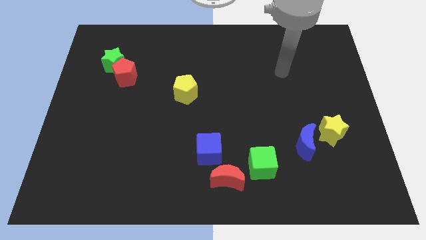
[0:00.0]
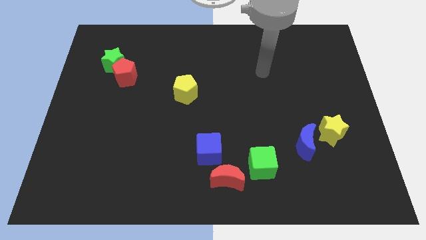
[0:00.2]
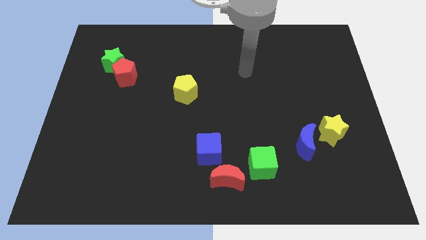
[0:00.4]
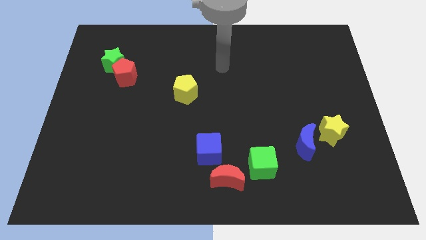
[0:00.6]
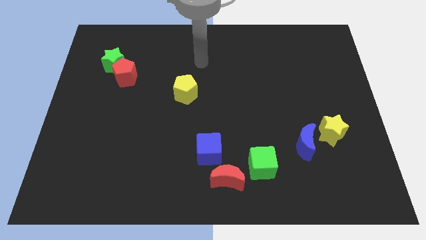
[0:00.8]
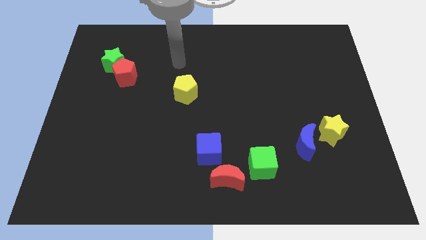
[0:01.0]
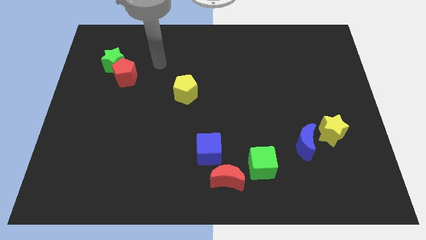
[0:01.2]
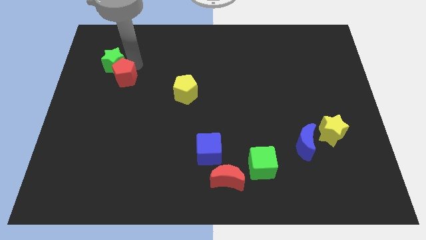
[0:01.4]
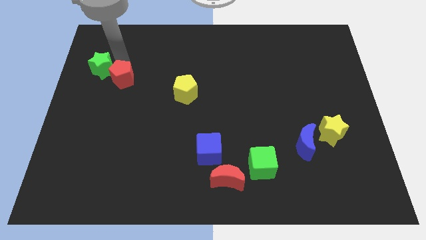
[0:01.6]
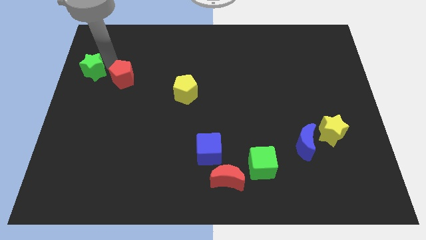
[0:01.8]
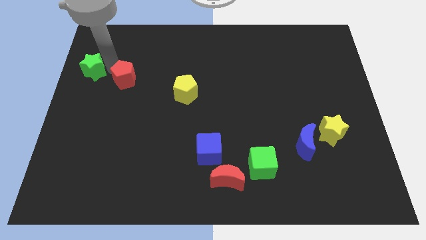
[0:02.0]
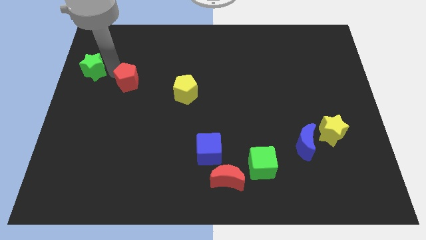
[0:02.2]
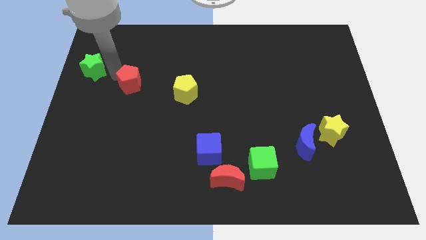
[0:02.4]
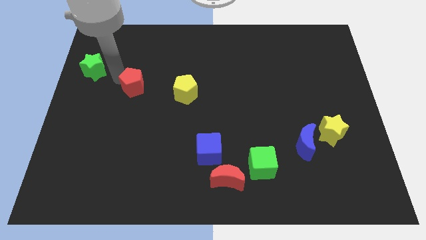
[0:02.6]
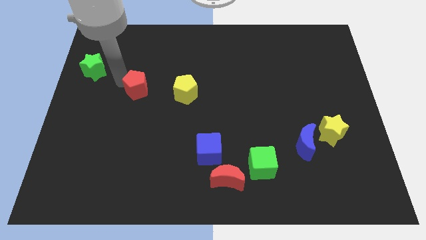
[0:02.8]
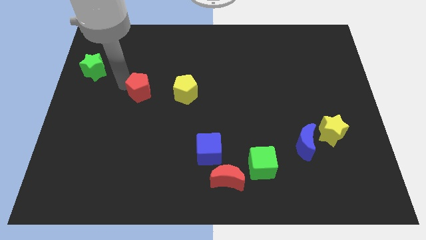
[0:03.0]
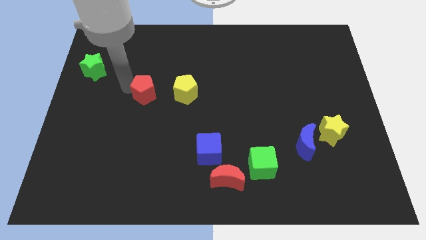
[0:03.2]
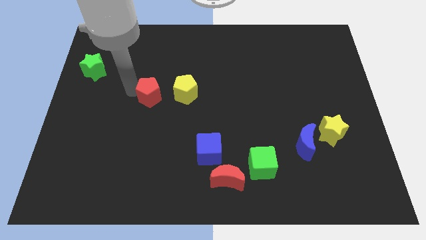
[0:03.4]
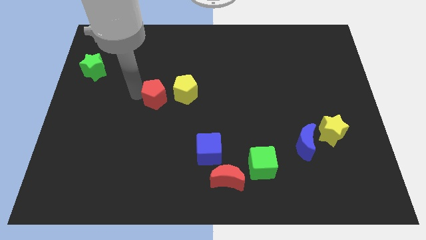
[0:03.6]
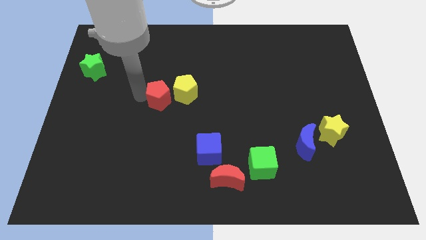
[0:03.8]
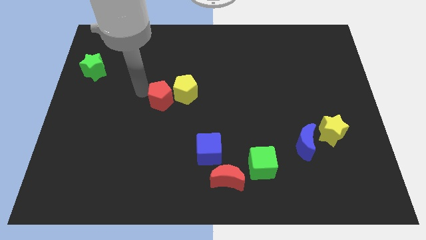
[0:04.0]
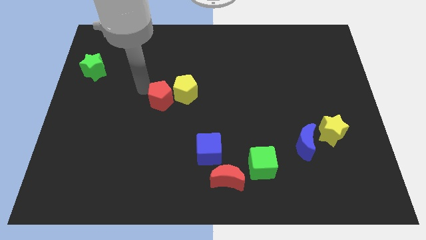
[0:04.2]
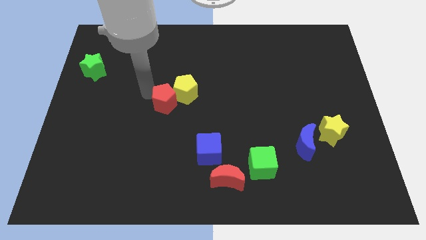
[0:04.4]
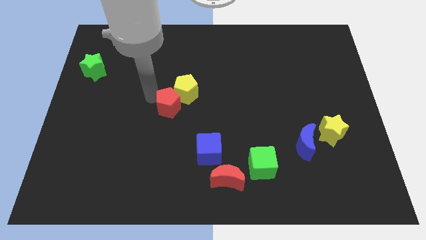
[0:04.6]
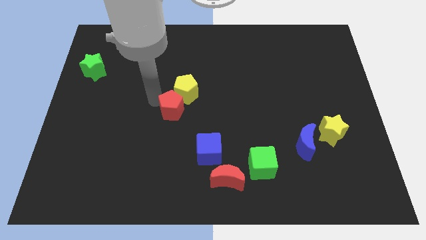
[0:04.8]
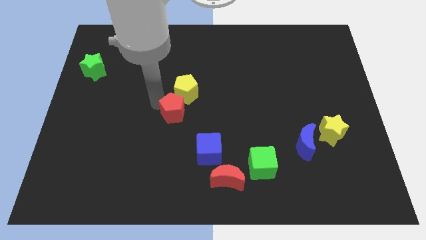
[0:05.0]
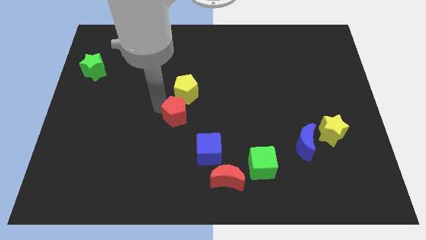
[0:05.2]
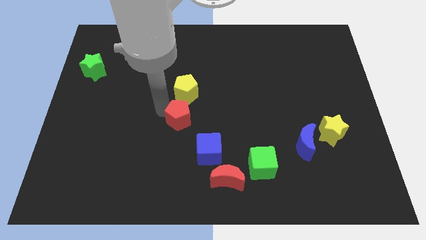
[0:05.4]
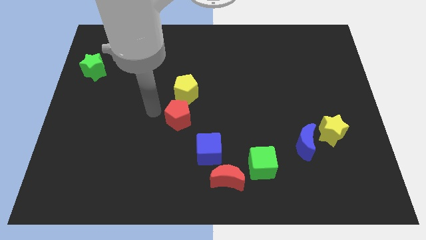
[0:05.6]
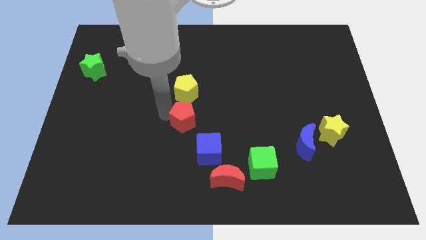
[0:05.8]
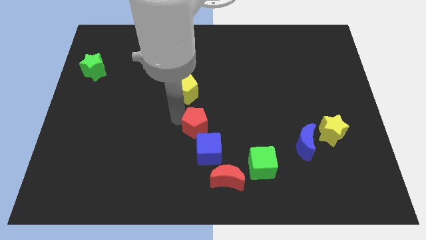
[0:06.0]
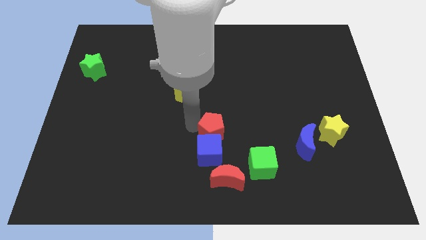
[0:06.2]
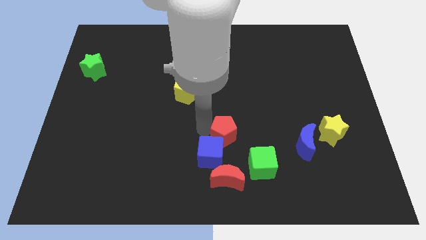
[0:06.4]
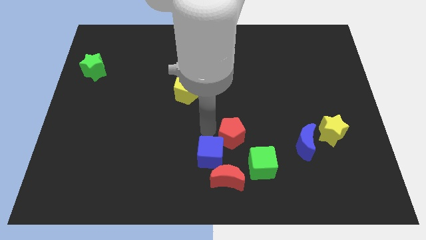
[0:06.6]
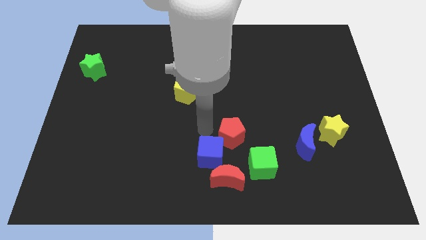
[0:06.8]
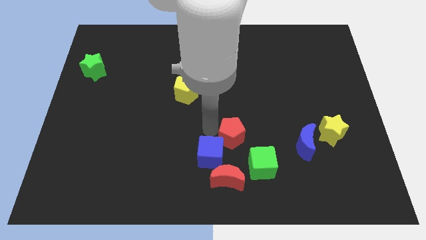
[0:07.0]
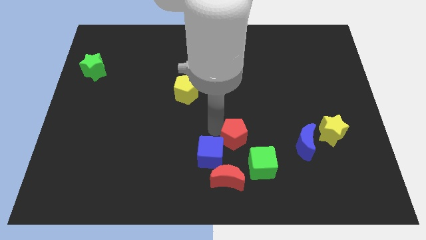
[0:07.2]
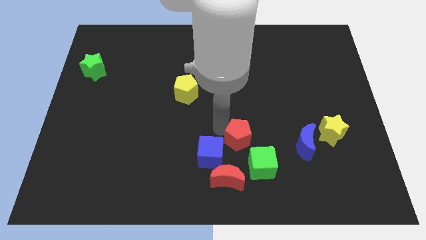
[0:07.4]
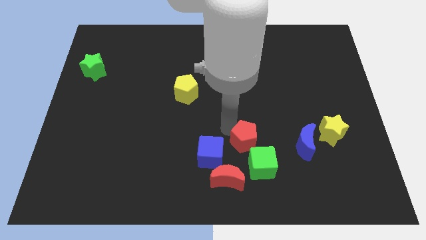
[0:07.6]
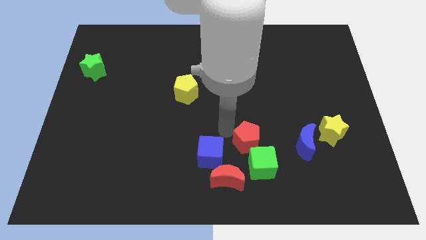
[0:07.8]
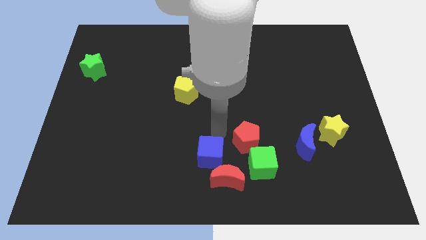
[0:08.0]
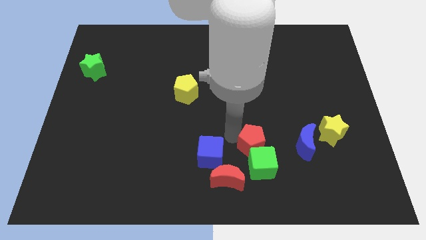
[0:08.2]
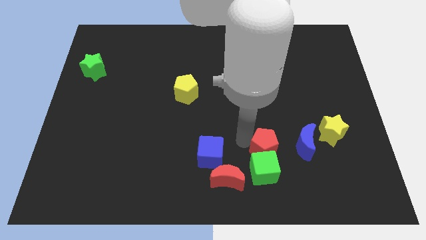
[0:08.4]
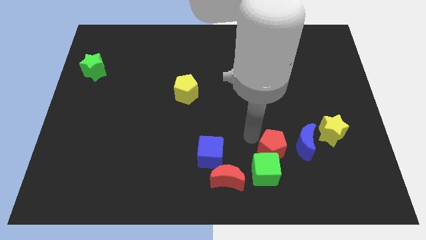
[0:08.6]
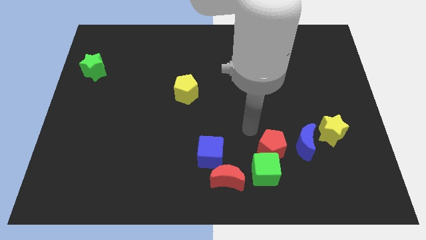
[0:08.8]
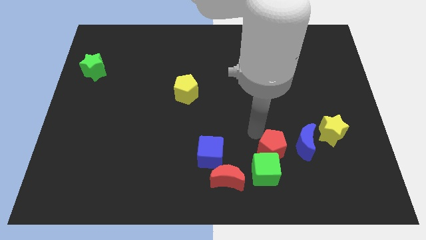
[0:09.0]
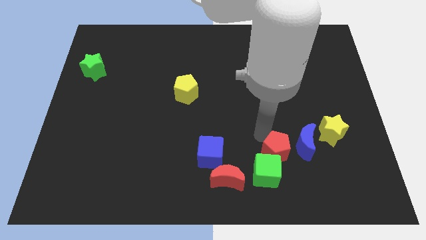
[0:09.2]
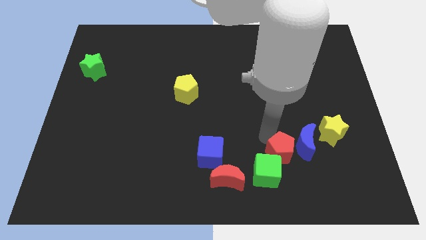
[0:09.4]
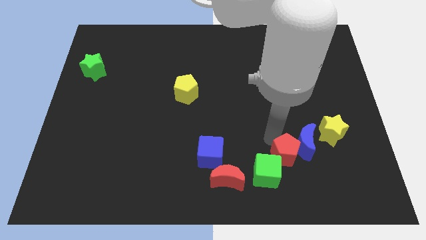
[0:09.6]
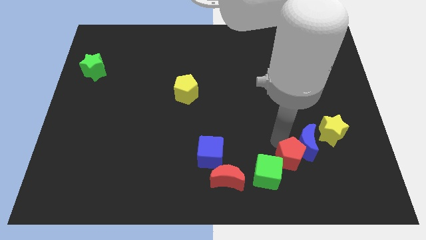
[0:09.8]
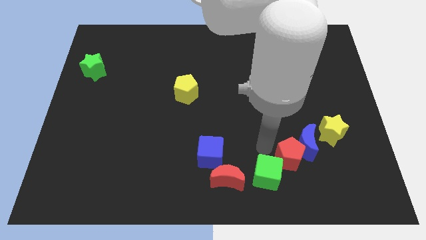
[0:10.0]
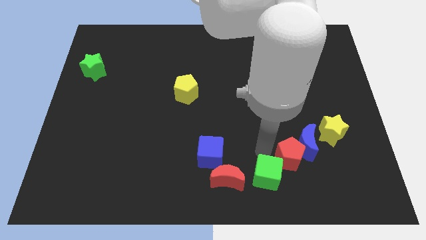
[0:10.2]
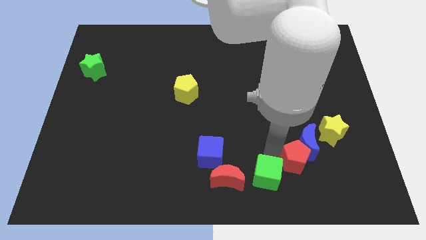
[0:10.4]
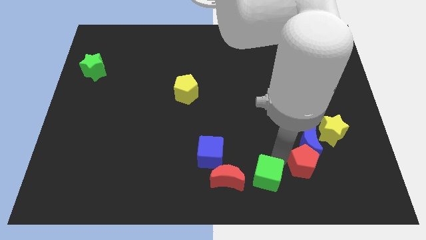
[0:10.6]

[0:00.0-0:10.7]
push the red pentagon to the bottom right of the blue moon

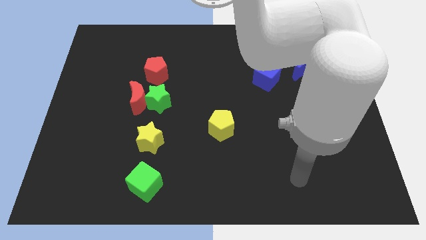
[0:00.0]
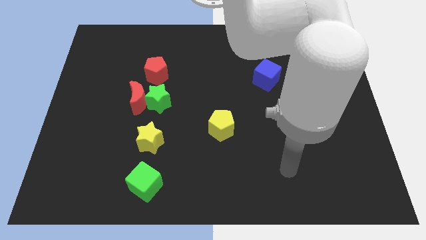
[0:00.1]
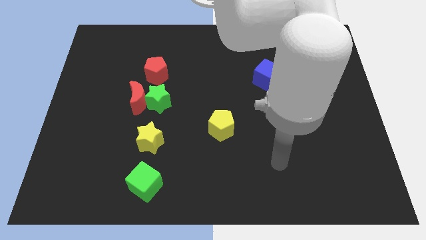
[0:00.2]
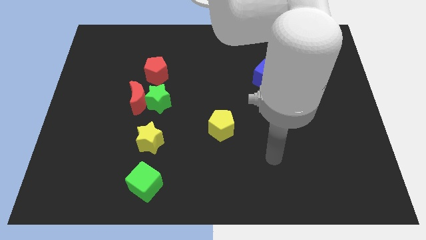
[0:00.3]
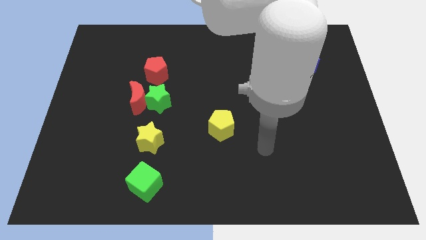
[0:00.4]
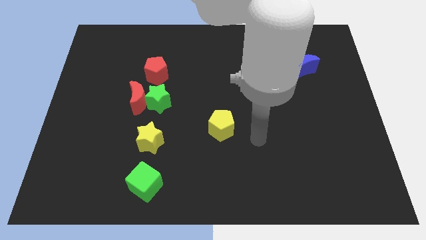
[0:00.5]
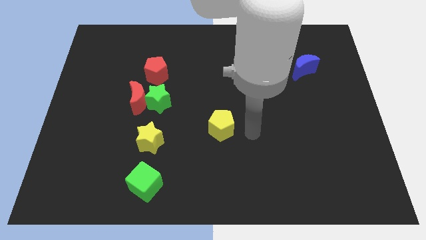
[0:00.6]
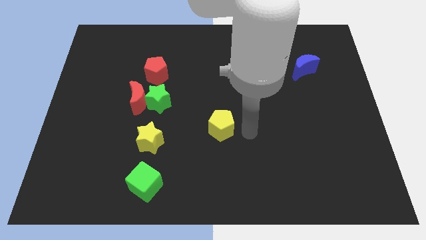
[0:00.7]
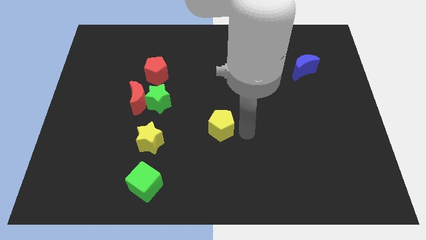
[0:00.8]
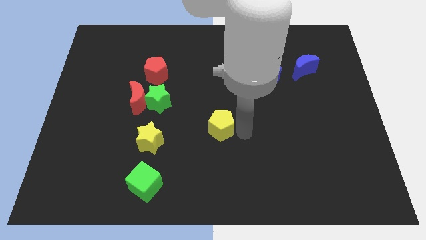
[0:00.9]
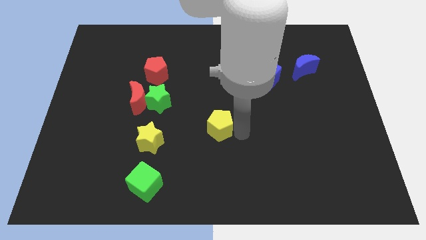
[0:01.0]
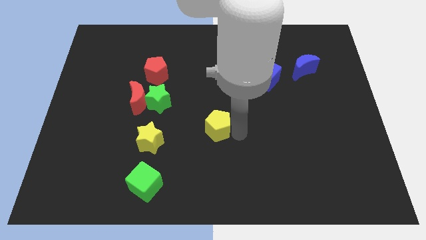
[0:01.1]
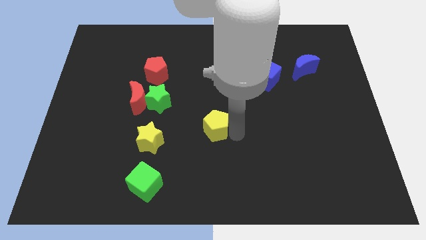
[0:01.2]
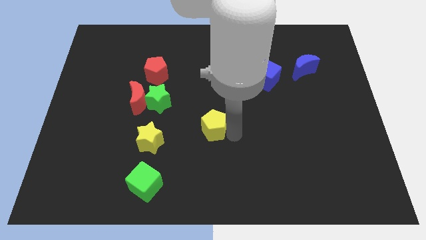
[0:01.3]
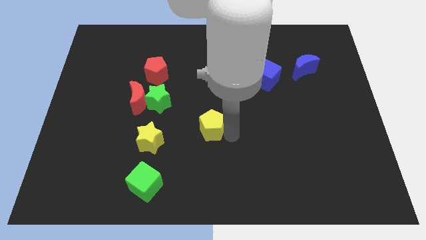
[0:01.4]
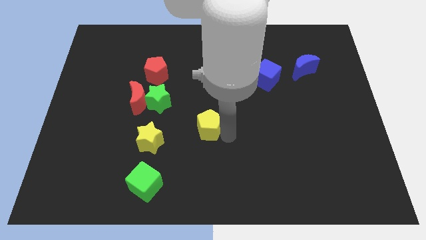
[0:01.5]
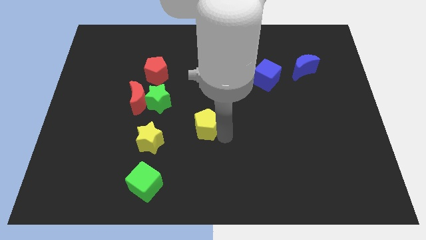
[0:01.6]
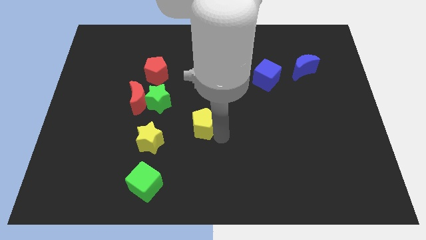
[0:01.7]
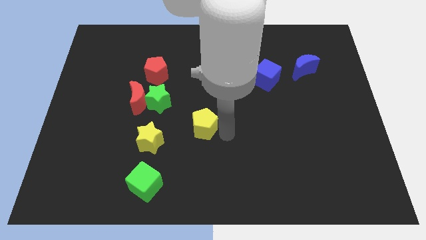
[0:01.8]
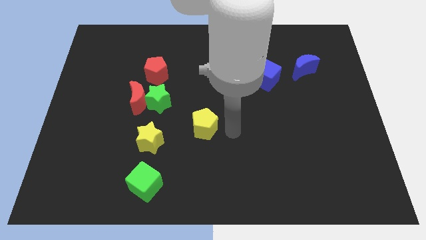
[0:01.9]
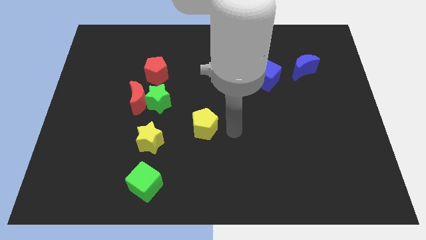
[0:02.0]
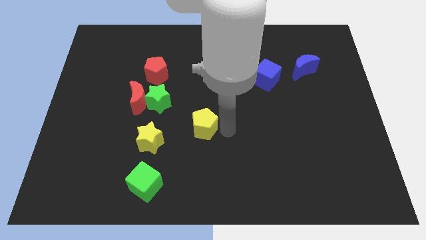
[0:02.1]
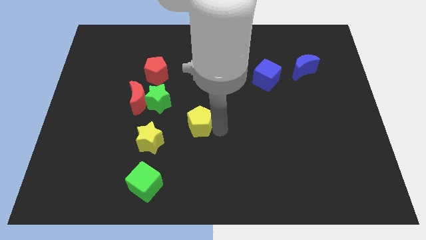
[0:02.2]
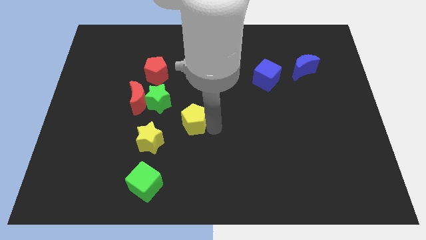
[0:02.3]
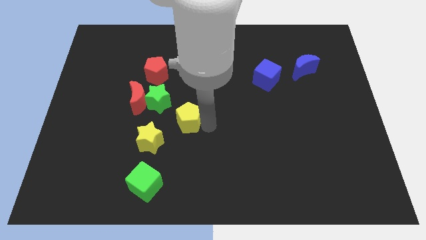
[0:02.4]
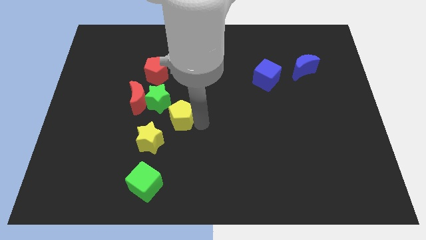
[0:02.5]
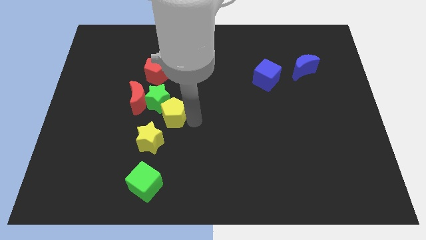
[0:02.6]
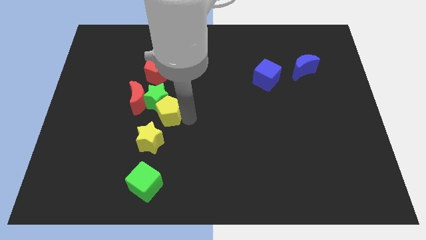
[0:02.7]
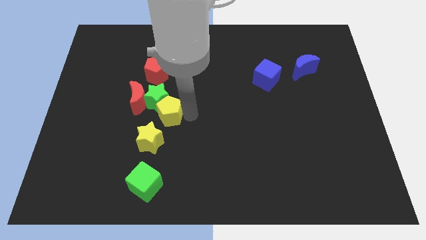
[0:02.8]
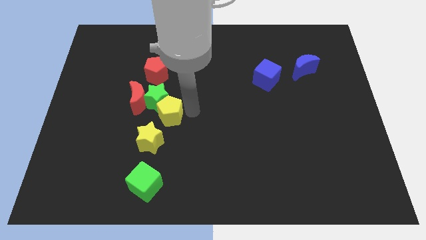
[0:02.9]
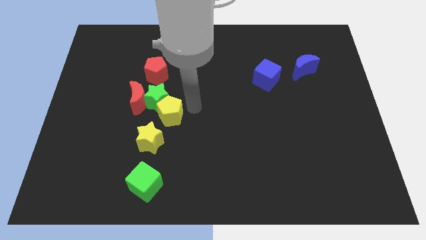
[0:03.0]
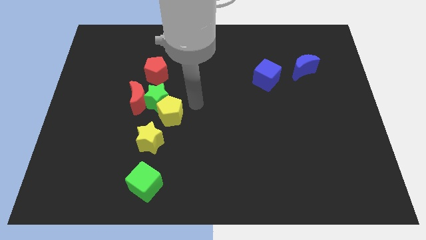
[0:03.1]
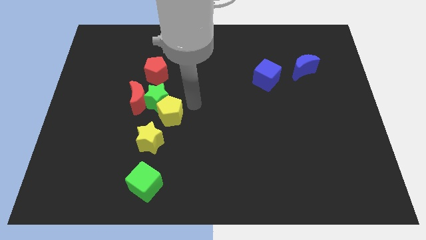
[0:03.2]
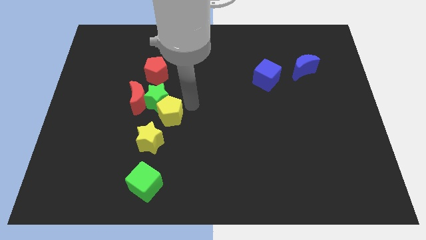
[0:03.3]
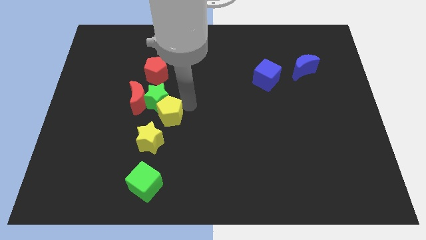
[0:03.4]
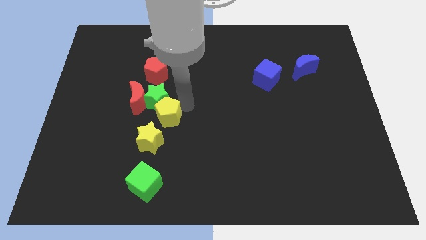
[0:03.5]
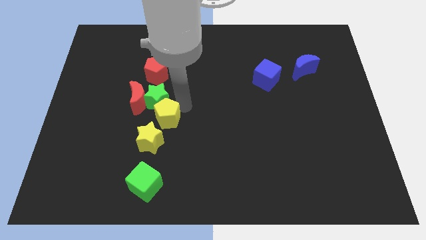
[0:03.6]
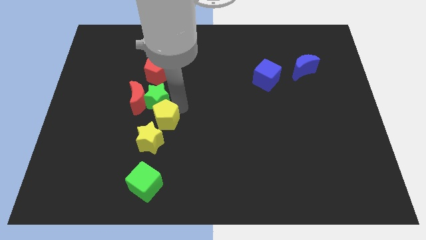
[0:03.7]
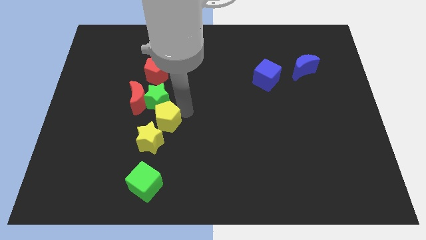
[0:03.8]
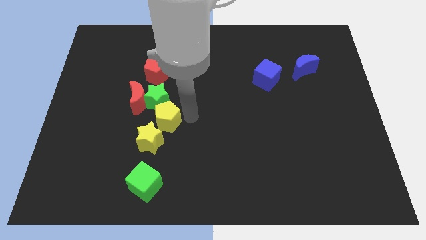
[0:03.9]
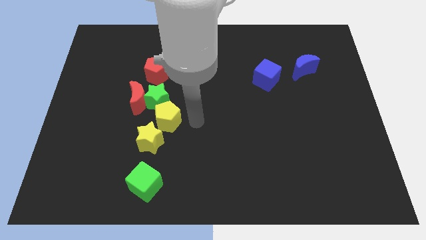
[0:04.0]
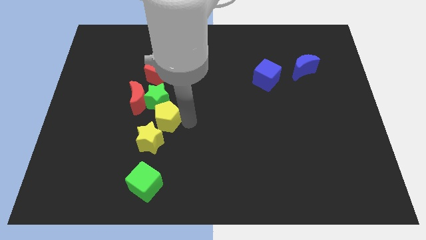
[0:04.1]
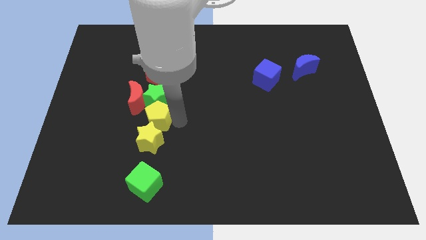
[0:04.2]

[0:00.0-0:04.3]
slide the yellow pentagon diagonally down and to the left of the green star
